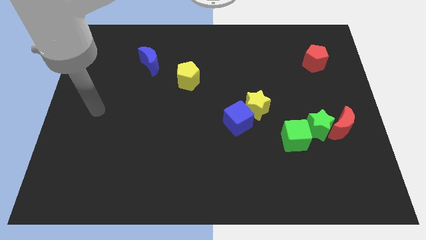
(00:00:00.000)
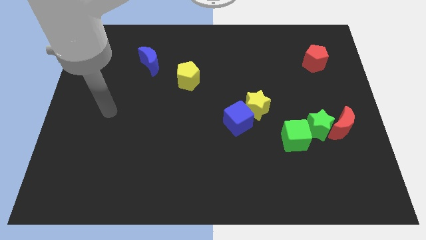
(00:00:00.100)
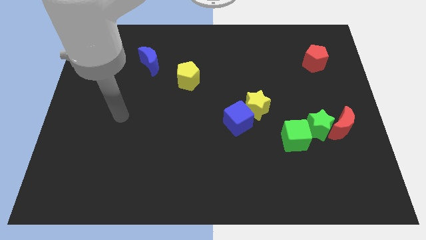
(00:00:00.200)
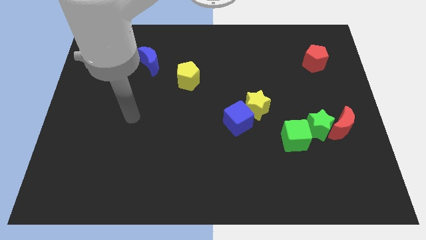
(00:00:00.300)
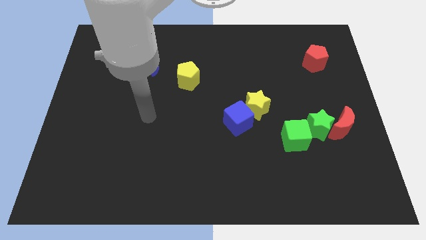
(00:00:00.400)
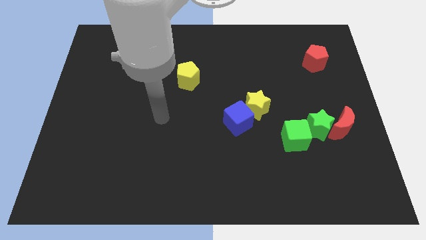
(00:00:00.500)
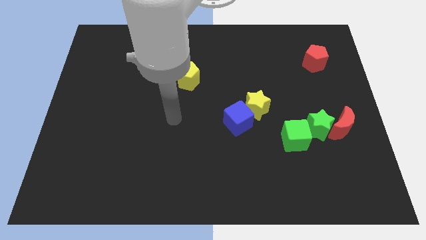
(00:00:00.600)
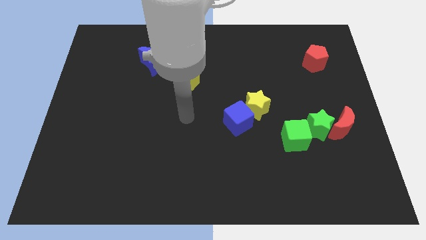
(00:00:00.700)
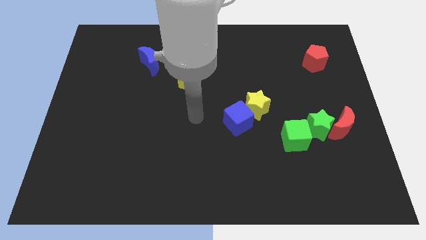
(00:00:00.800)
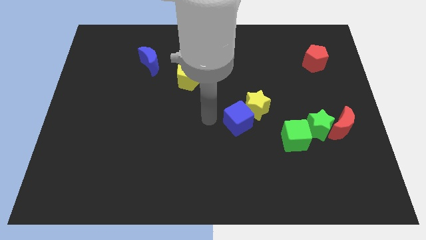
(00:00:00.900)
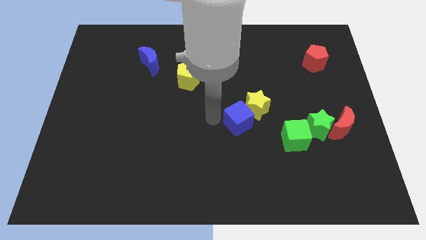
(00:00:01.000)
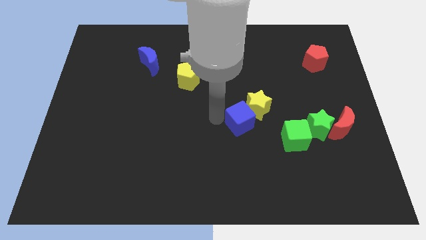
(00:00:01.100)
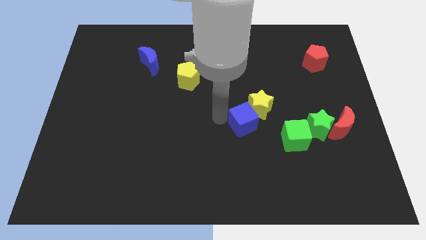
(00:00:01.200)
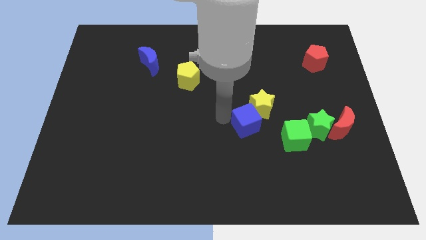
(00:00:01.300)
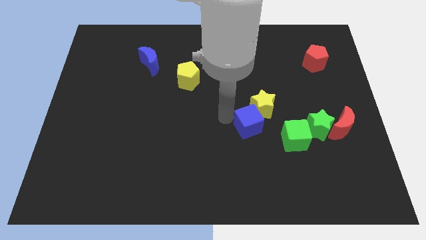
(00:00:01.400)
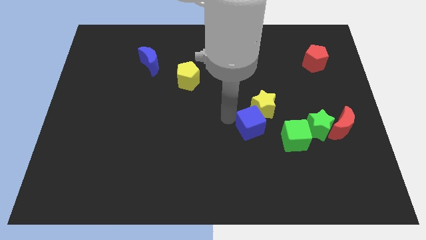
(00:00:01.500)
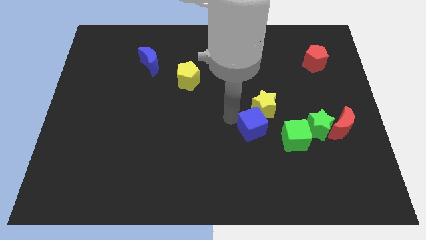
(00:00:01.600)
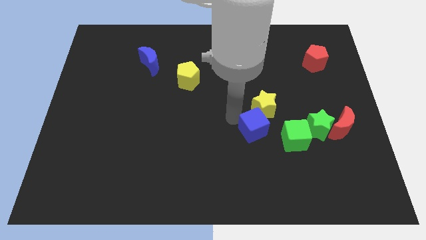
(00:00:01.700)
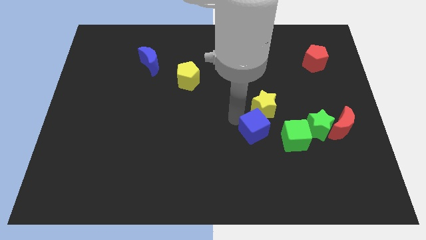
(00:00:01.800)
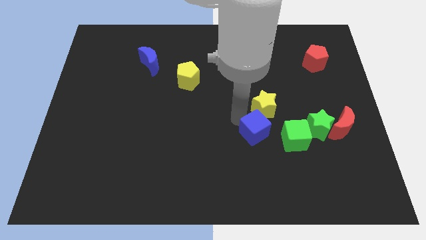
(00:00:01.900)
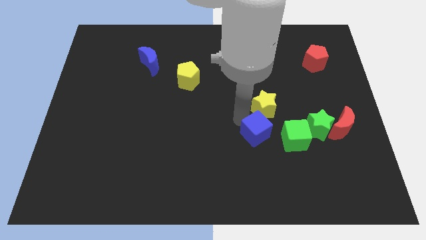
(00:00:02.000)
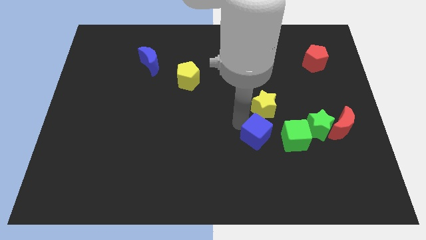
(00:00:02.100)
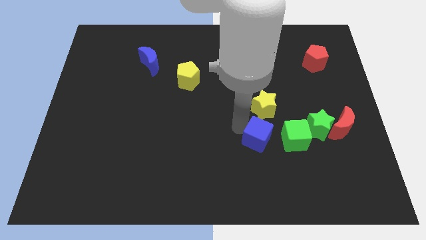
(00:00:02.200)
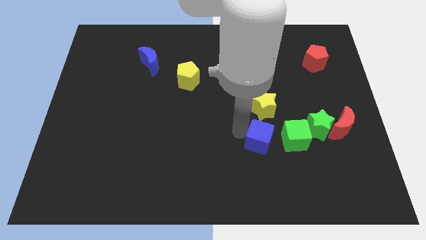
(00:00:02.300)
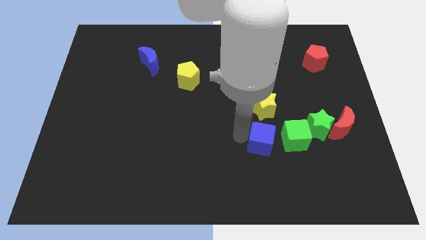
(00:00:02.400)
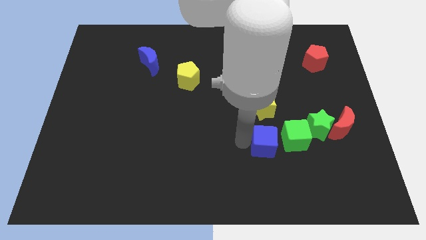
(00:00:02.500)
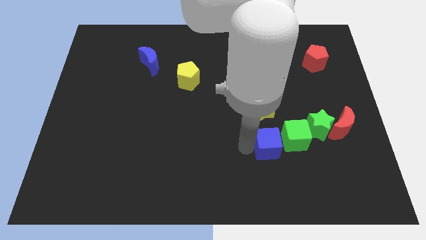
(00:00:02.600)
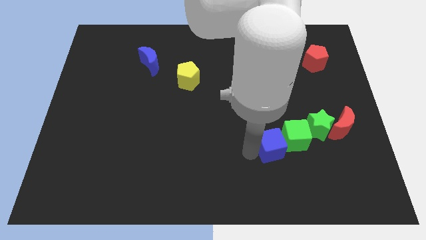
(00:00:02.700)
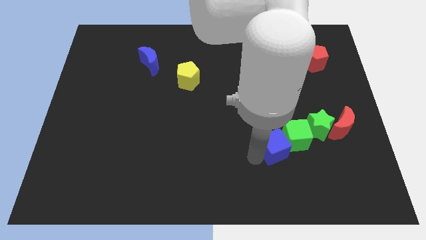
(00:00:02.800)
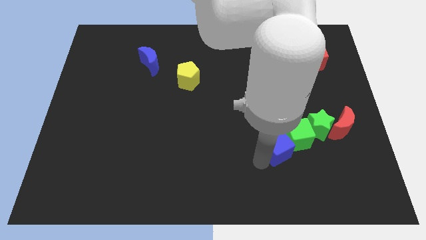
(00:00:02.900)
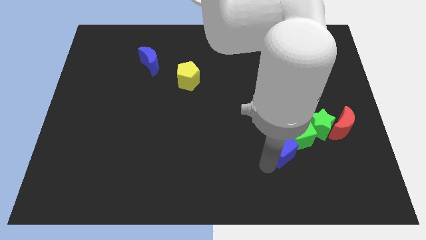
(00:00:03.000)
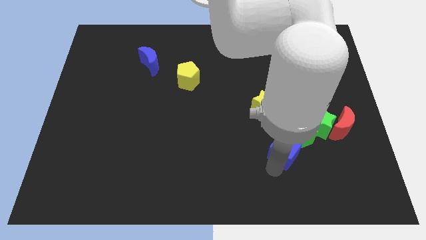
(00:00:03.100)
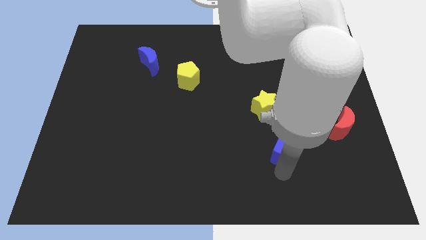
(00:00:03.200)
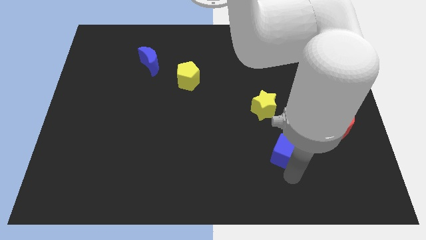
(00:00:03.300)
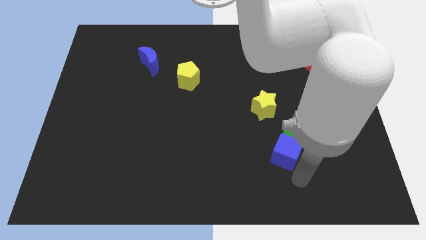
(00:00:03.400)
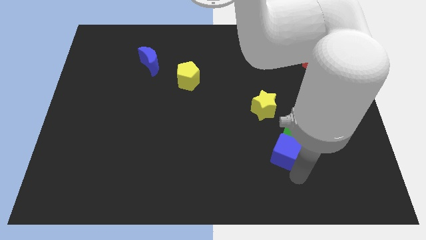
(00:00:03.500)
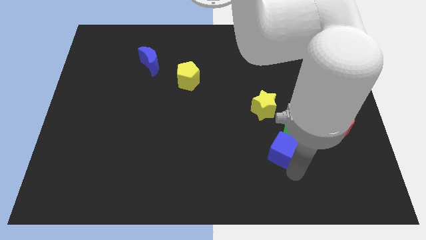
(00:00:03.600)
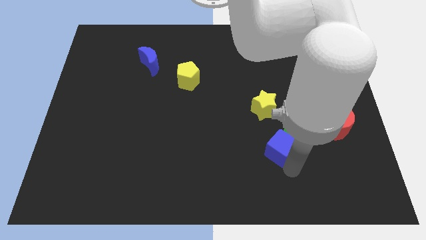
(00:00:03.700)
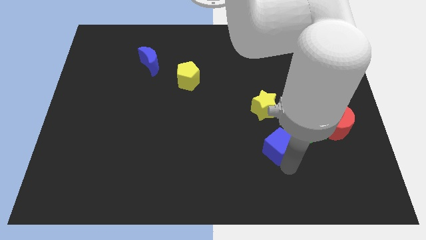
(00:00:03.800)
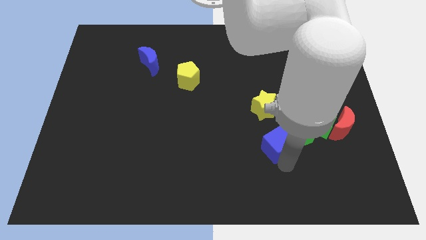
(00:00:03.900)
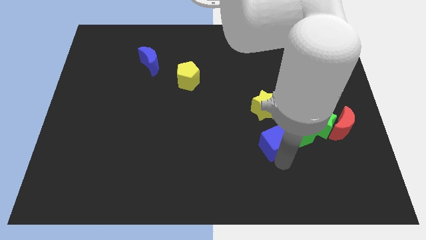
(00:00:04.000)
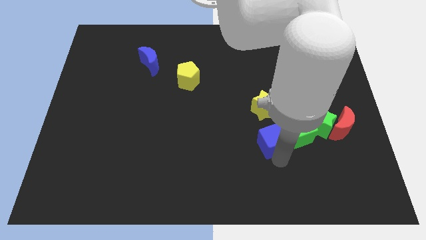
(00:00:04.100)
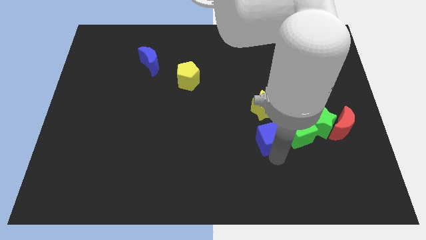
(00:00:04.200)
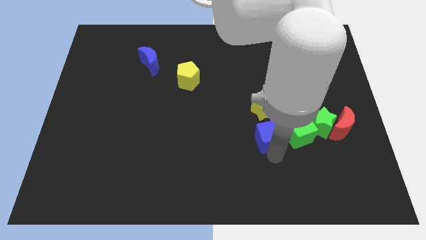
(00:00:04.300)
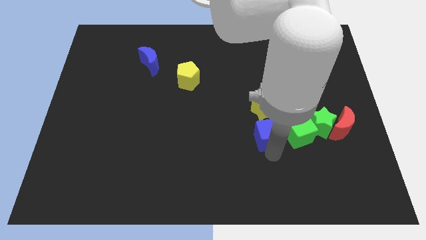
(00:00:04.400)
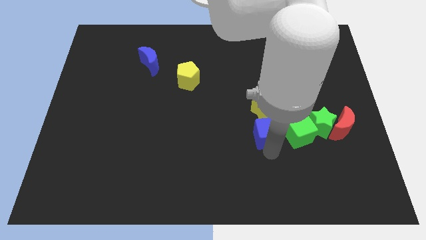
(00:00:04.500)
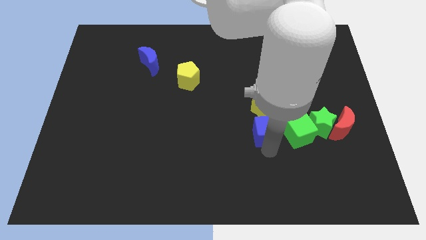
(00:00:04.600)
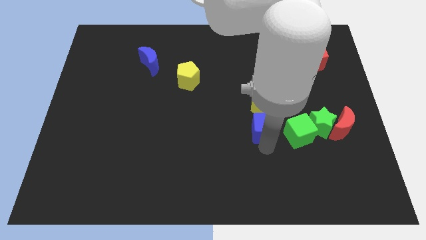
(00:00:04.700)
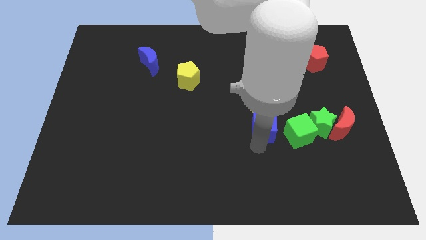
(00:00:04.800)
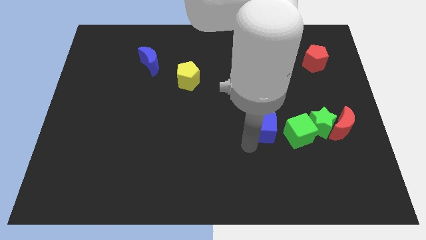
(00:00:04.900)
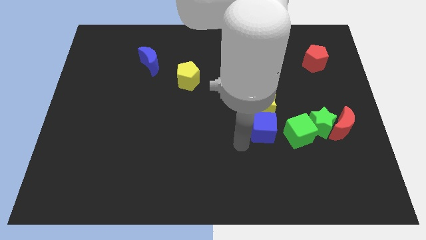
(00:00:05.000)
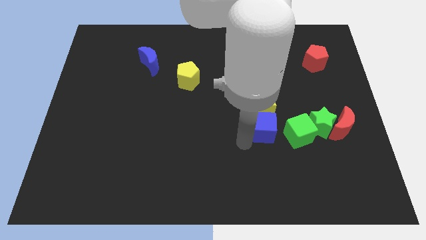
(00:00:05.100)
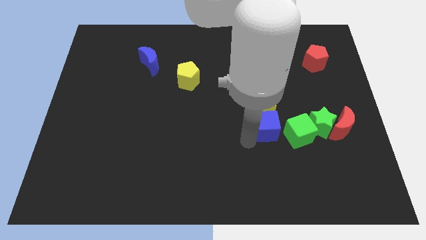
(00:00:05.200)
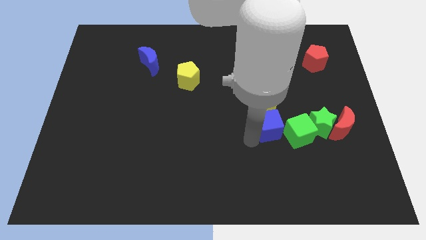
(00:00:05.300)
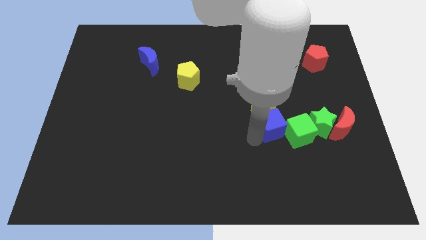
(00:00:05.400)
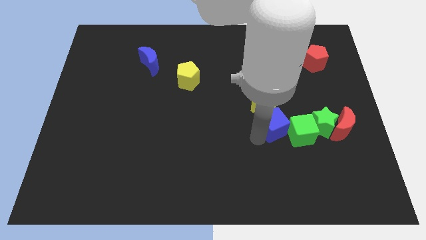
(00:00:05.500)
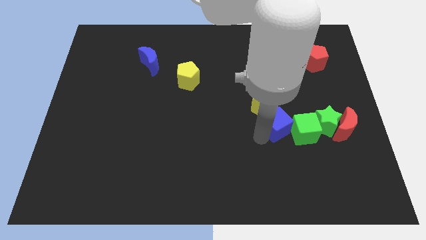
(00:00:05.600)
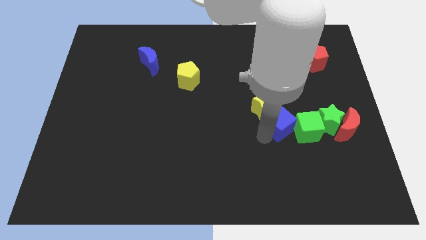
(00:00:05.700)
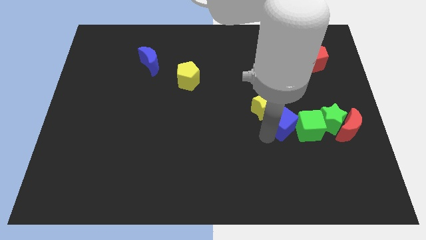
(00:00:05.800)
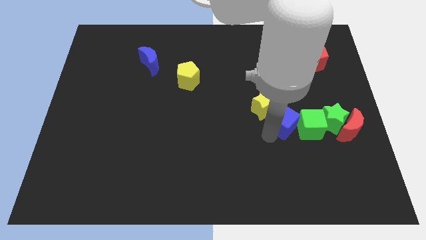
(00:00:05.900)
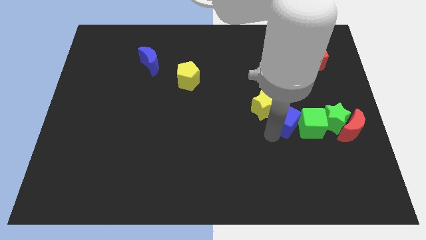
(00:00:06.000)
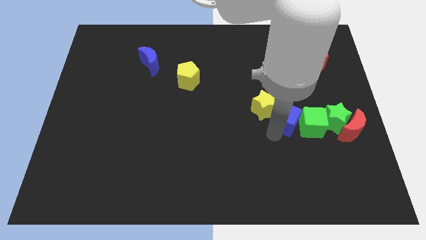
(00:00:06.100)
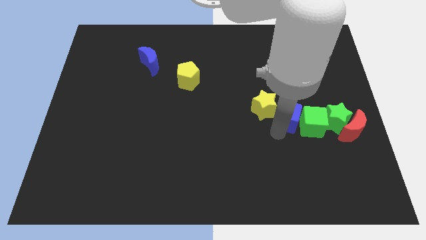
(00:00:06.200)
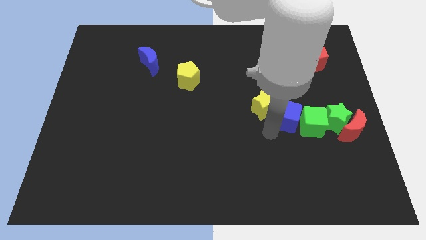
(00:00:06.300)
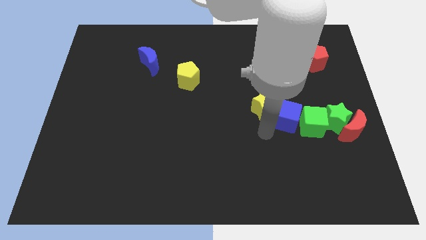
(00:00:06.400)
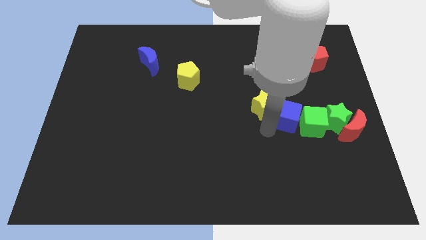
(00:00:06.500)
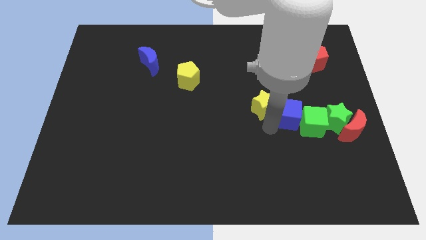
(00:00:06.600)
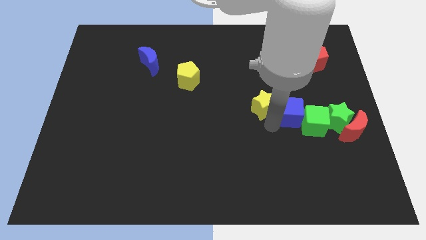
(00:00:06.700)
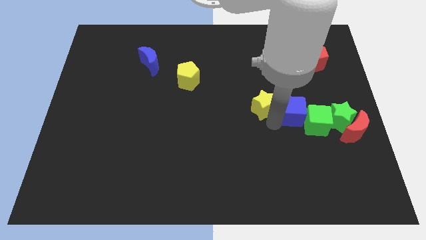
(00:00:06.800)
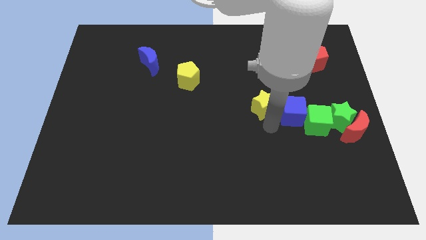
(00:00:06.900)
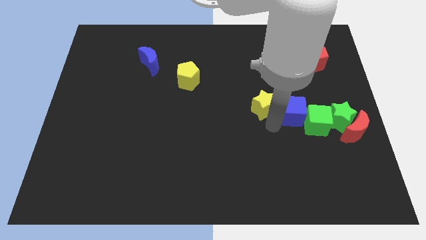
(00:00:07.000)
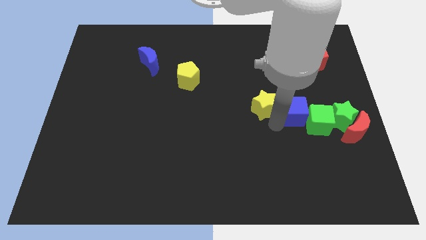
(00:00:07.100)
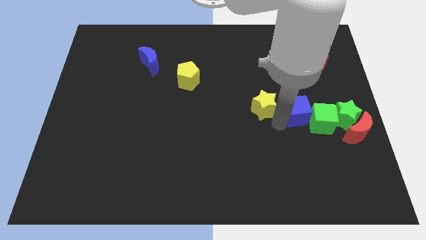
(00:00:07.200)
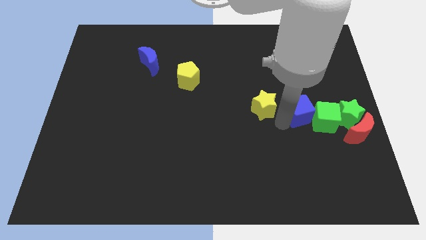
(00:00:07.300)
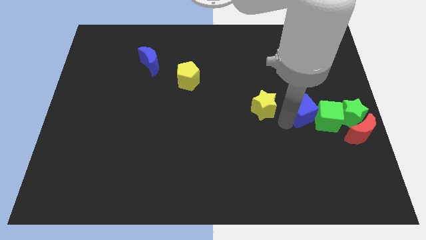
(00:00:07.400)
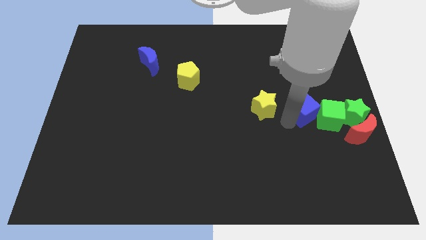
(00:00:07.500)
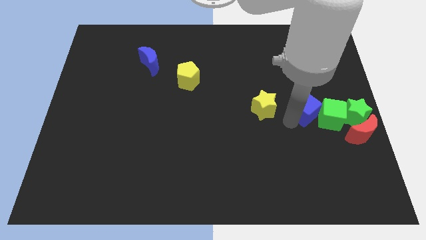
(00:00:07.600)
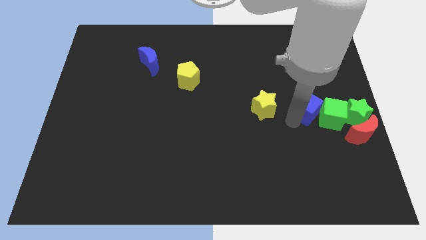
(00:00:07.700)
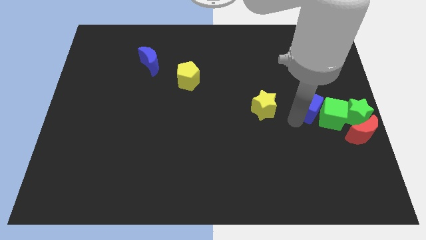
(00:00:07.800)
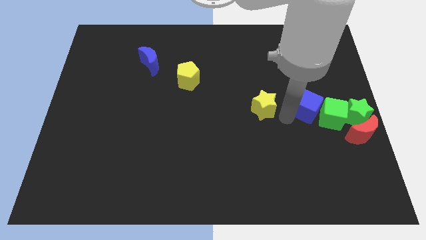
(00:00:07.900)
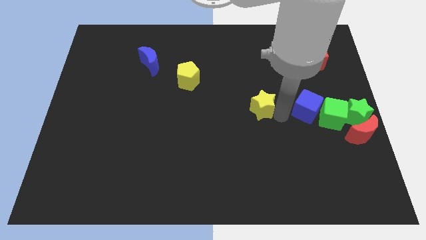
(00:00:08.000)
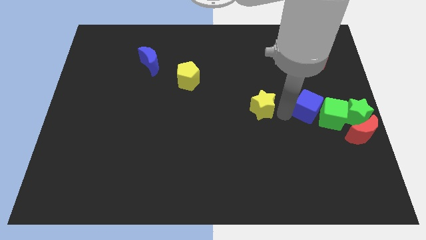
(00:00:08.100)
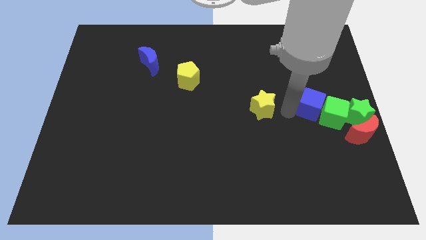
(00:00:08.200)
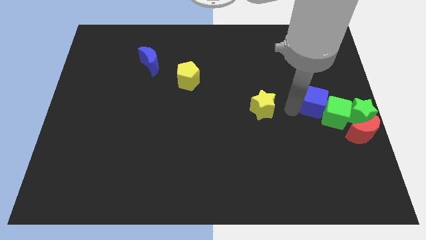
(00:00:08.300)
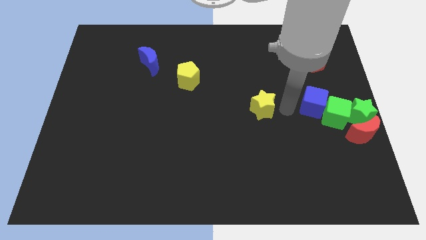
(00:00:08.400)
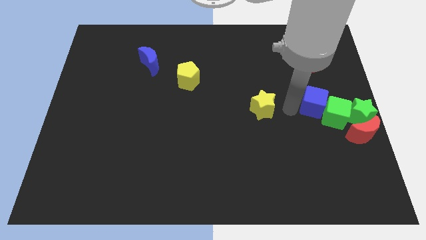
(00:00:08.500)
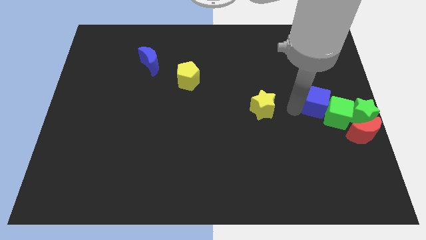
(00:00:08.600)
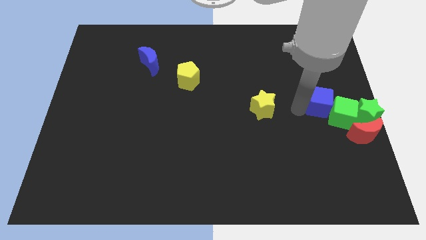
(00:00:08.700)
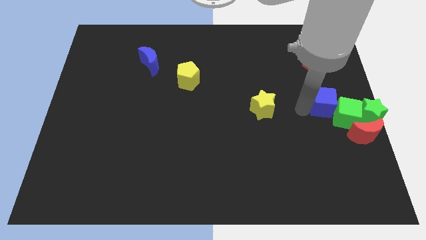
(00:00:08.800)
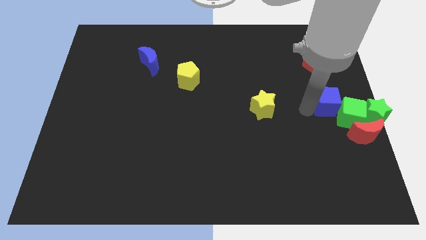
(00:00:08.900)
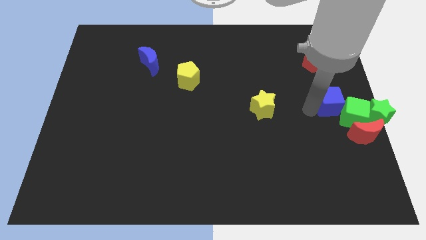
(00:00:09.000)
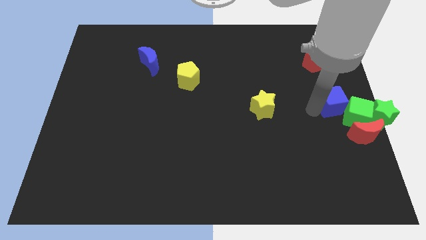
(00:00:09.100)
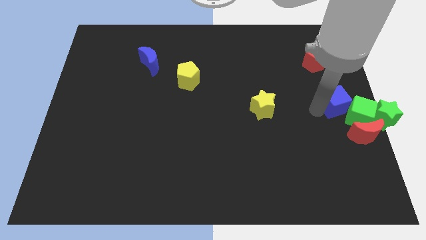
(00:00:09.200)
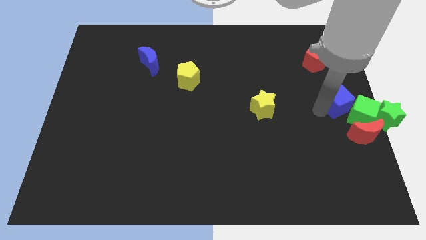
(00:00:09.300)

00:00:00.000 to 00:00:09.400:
slide the blue cube to the top side of the red moon
